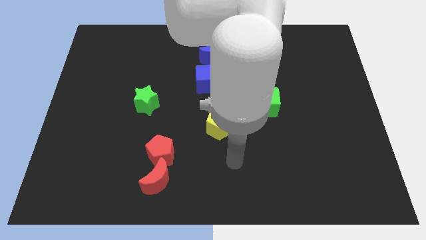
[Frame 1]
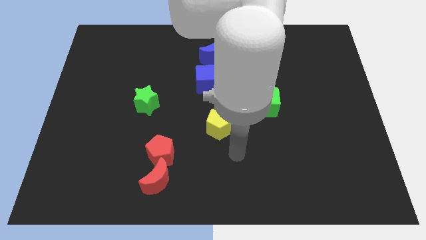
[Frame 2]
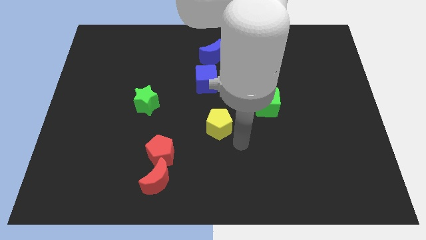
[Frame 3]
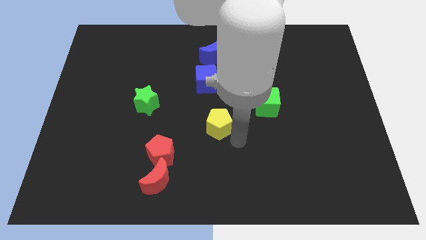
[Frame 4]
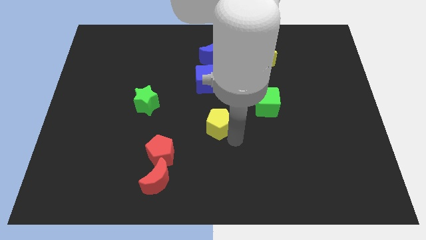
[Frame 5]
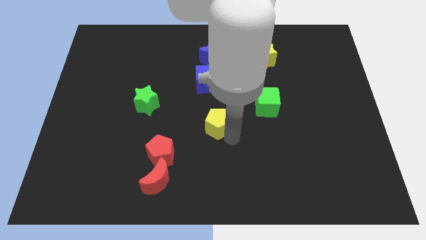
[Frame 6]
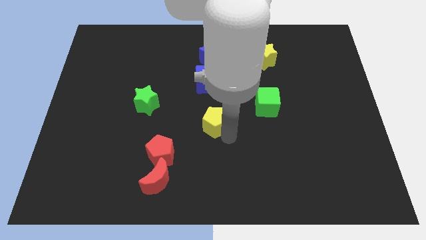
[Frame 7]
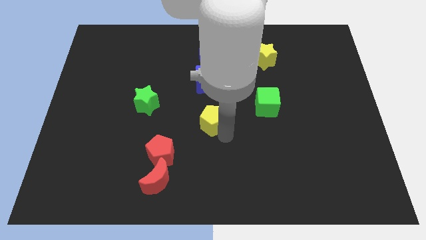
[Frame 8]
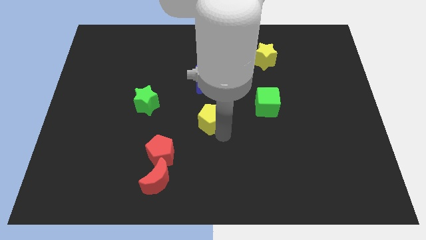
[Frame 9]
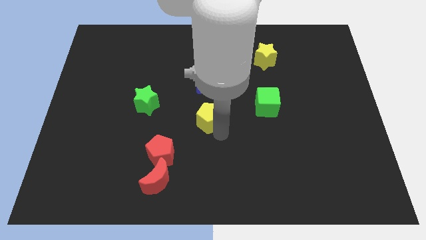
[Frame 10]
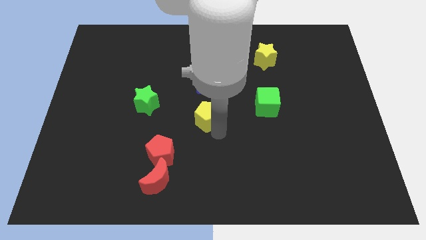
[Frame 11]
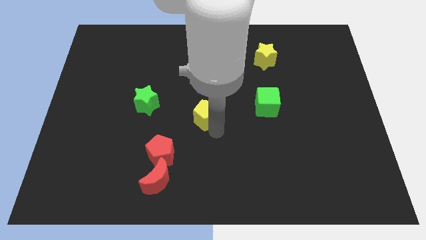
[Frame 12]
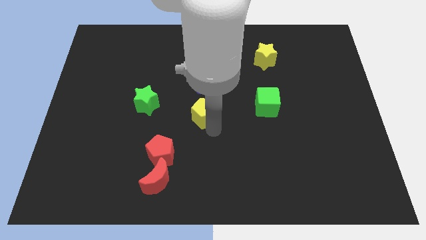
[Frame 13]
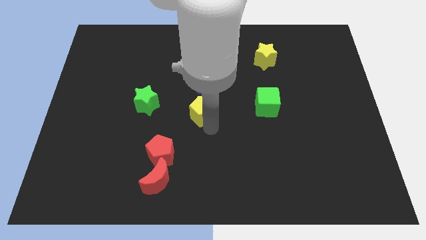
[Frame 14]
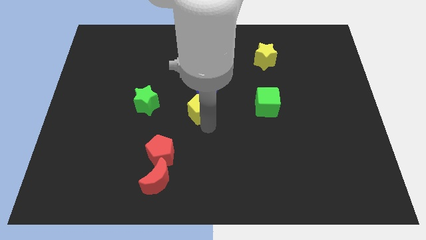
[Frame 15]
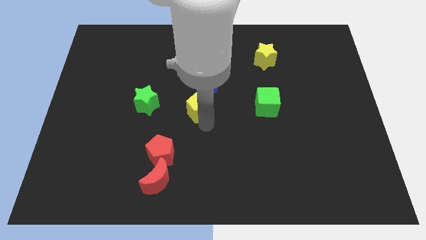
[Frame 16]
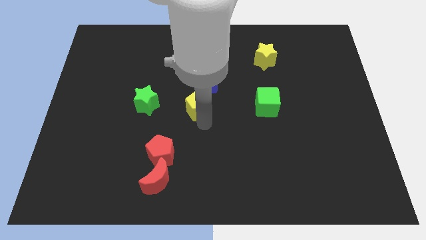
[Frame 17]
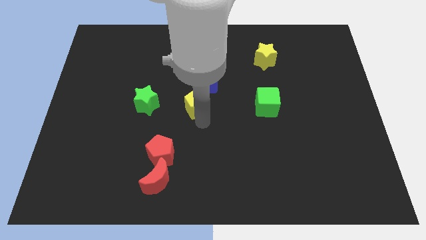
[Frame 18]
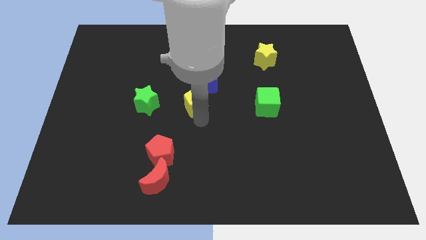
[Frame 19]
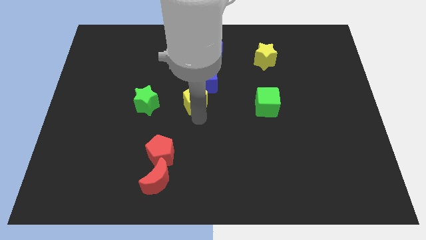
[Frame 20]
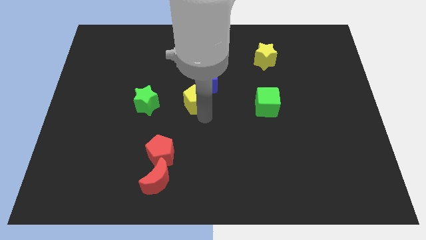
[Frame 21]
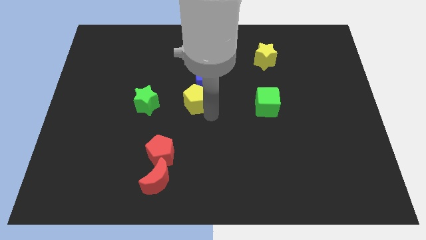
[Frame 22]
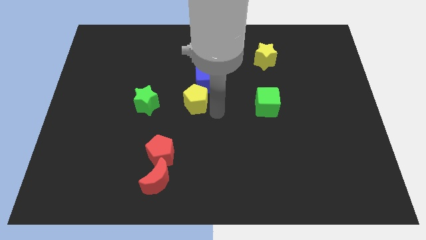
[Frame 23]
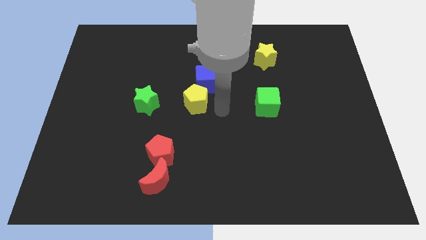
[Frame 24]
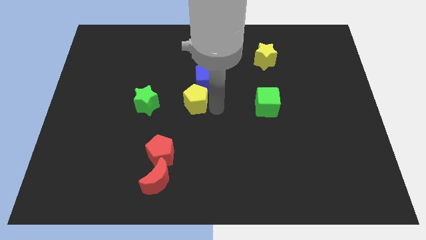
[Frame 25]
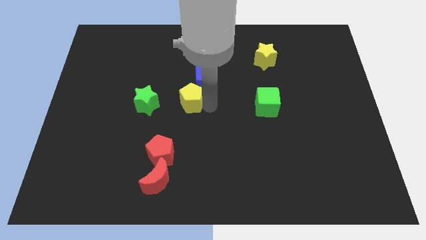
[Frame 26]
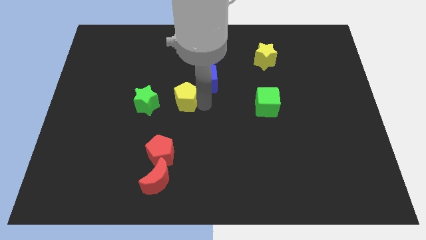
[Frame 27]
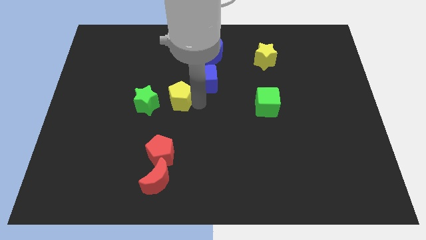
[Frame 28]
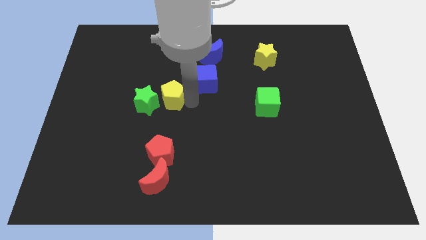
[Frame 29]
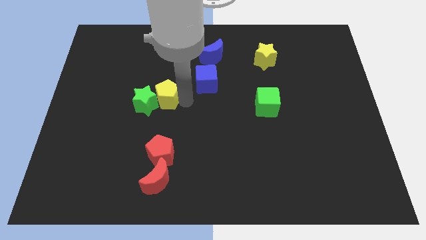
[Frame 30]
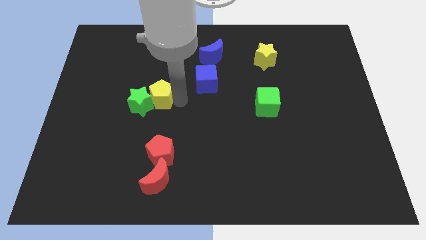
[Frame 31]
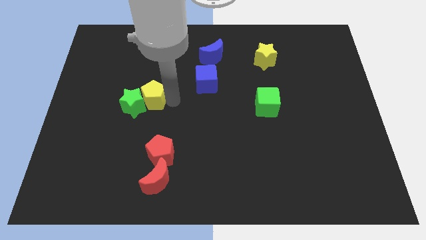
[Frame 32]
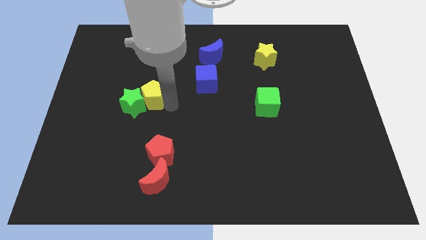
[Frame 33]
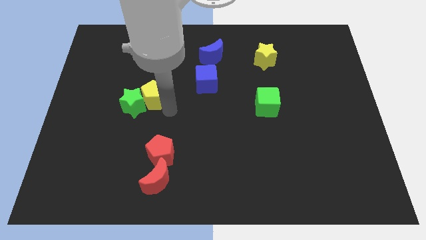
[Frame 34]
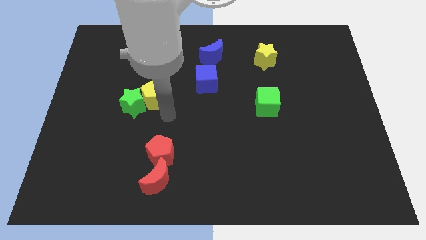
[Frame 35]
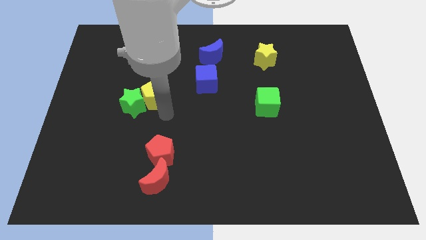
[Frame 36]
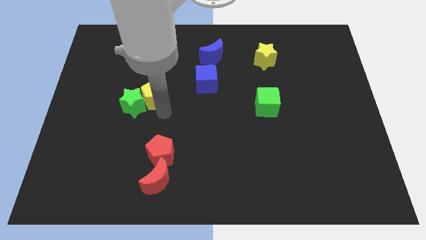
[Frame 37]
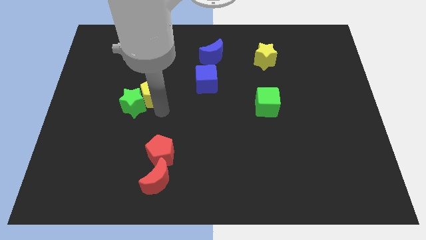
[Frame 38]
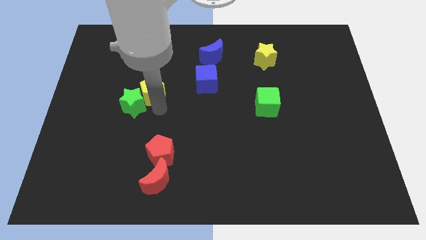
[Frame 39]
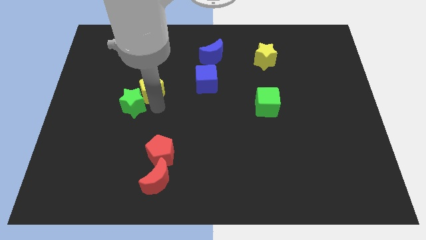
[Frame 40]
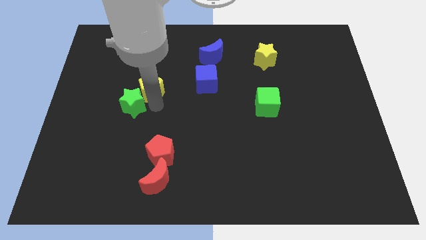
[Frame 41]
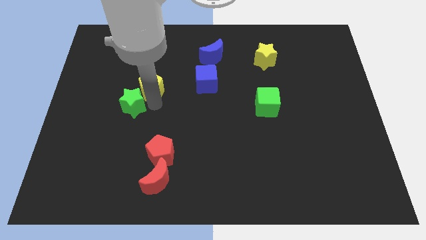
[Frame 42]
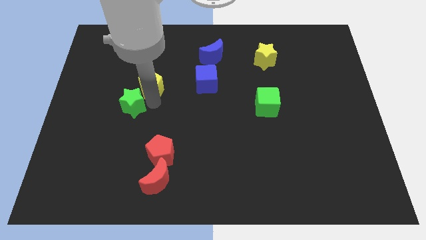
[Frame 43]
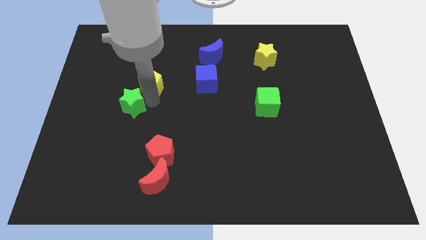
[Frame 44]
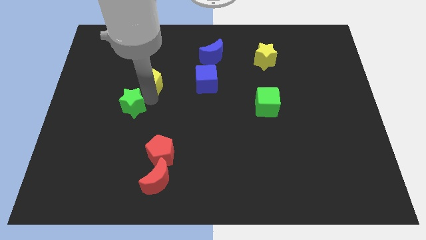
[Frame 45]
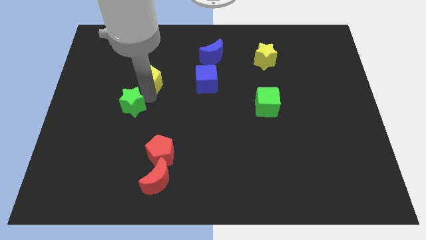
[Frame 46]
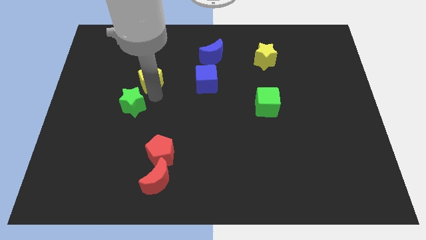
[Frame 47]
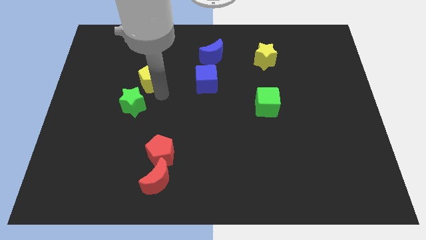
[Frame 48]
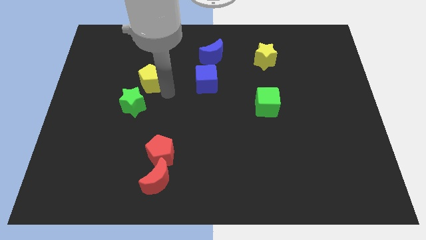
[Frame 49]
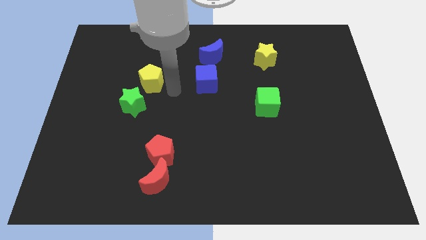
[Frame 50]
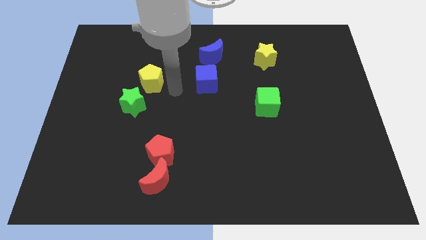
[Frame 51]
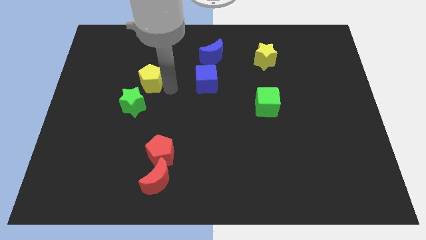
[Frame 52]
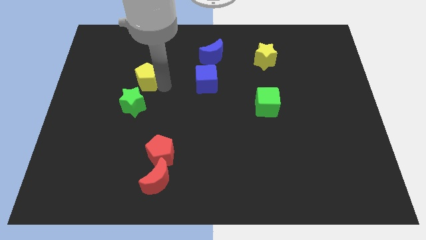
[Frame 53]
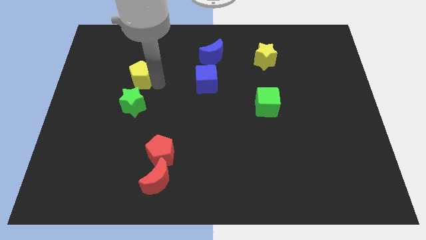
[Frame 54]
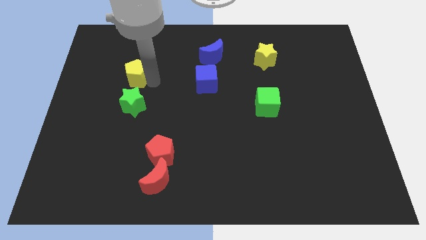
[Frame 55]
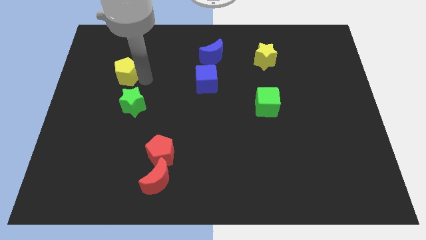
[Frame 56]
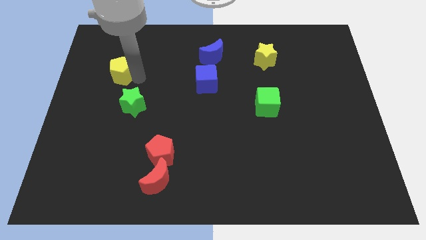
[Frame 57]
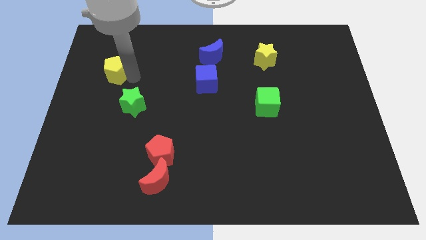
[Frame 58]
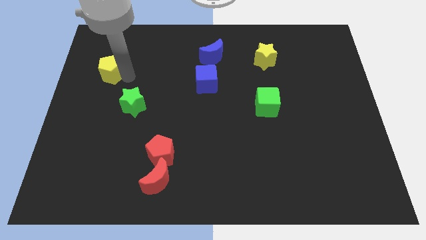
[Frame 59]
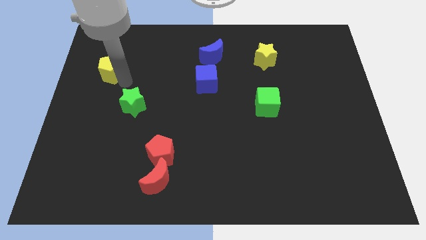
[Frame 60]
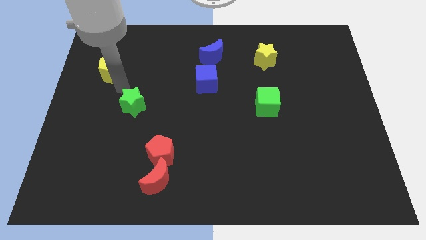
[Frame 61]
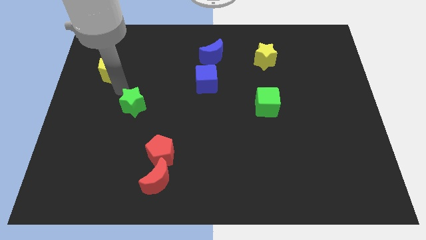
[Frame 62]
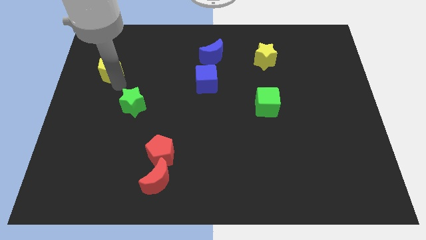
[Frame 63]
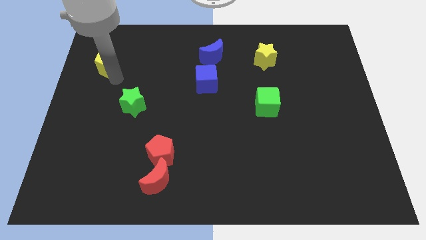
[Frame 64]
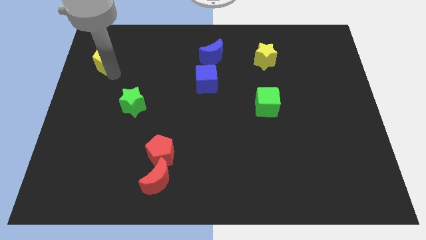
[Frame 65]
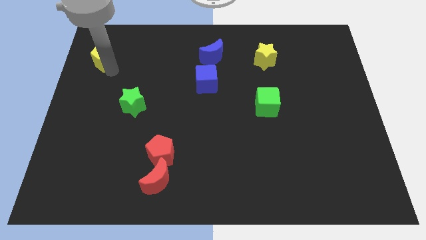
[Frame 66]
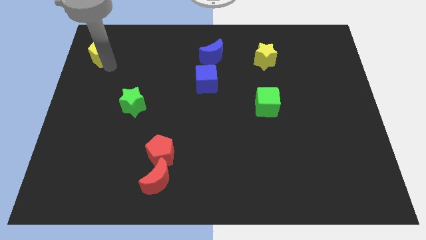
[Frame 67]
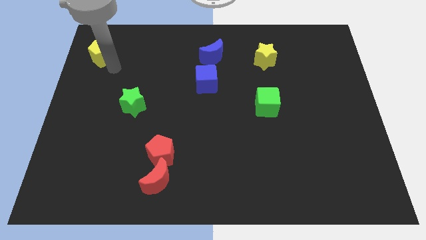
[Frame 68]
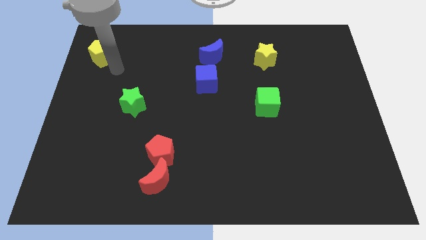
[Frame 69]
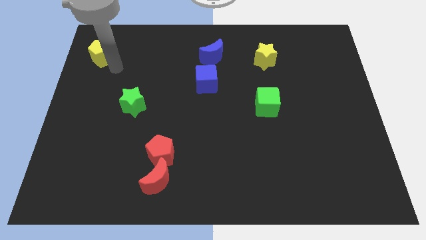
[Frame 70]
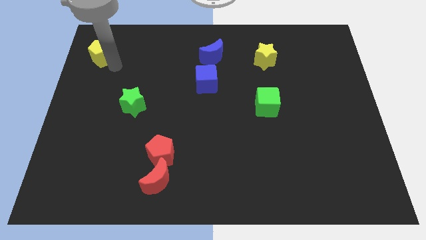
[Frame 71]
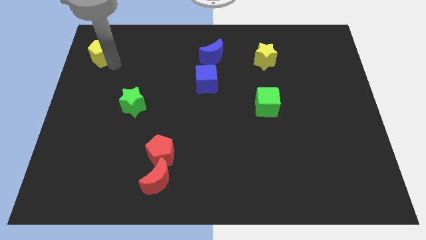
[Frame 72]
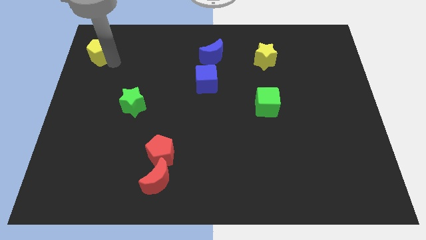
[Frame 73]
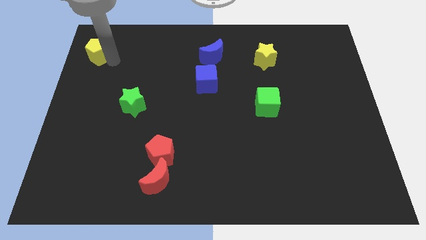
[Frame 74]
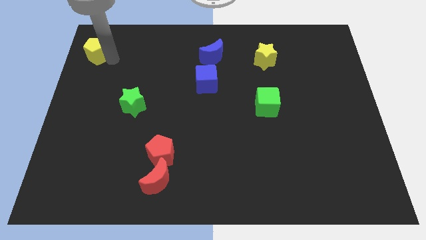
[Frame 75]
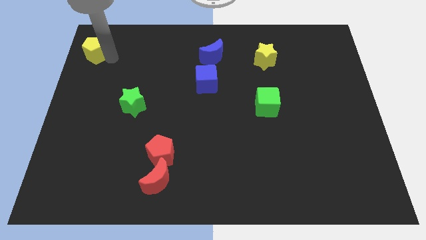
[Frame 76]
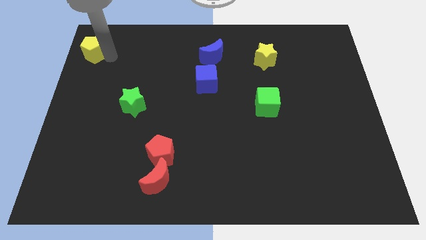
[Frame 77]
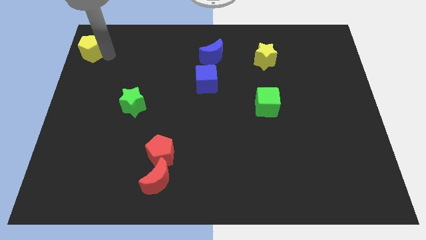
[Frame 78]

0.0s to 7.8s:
push the yellow pentagon to the top left of the board

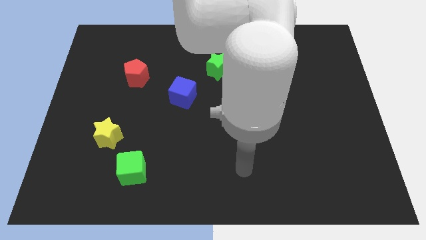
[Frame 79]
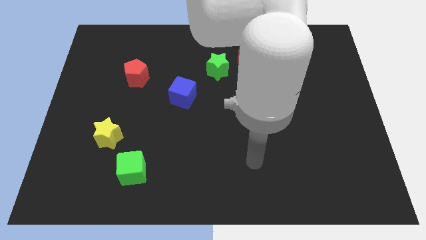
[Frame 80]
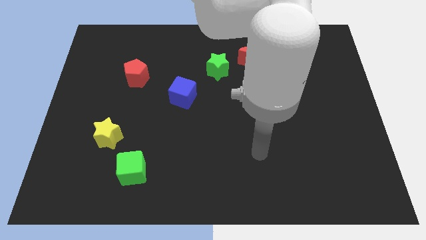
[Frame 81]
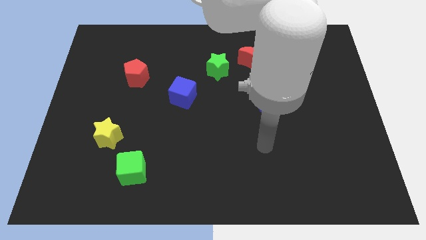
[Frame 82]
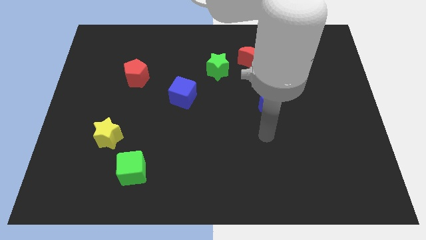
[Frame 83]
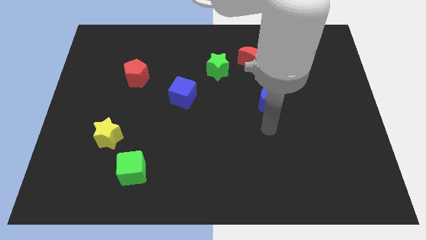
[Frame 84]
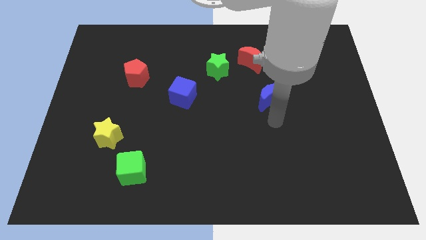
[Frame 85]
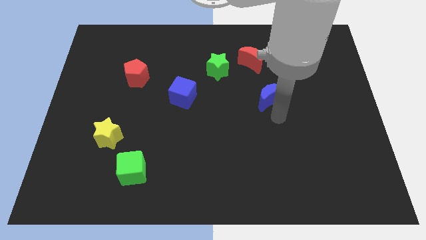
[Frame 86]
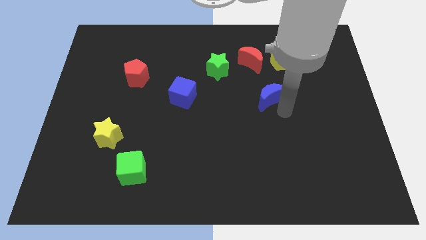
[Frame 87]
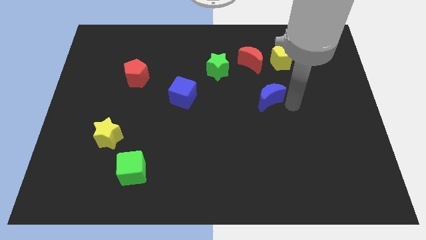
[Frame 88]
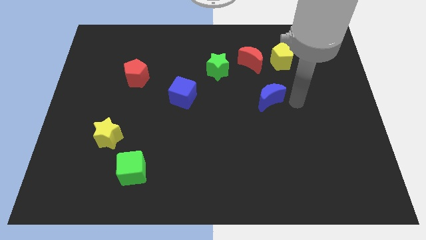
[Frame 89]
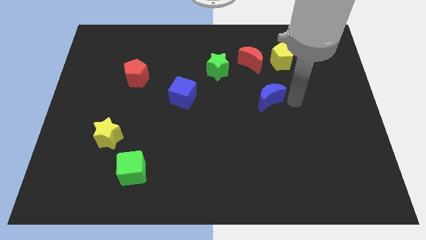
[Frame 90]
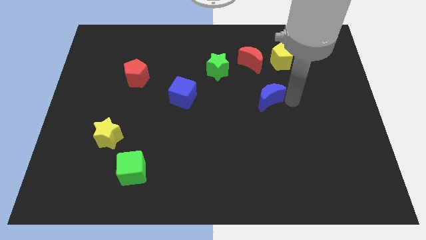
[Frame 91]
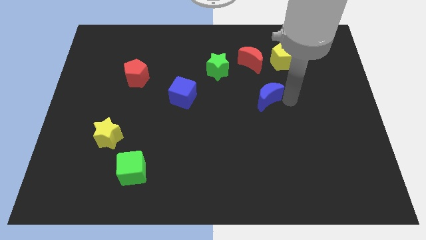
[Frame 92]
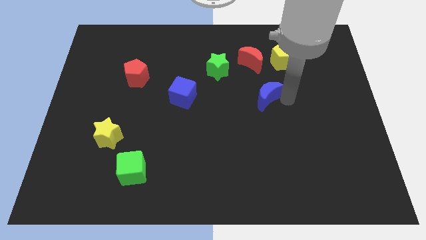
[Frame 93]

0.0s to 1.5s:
put the blue moon to the middle
